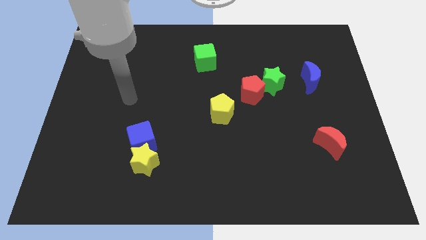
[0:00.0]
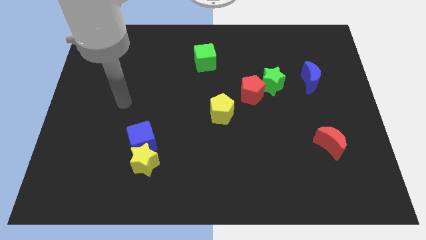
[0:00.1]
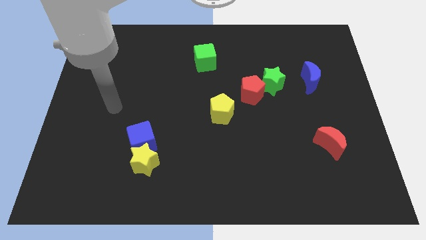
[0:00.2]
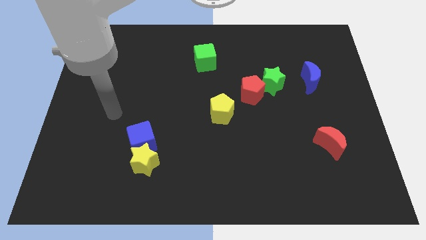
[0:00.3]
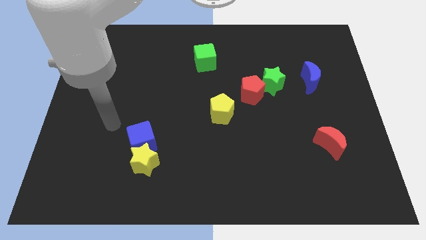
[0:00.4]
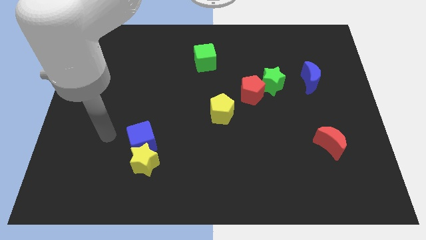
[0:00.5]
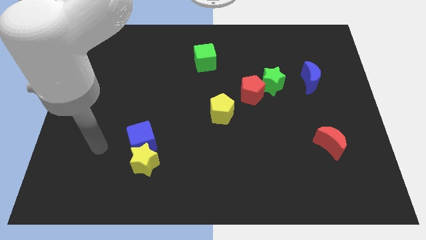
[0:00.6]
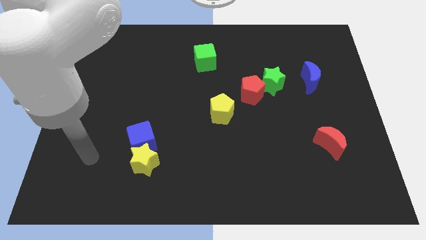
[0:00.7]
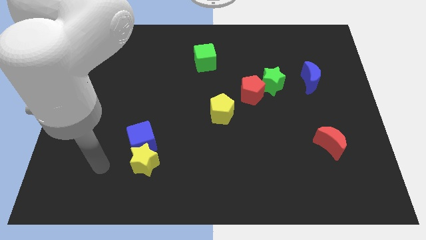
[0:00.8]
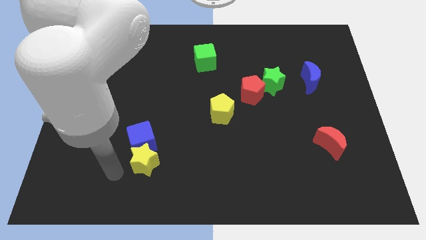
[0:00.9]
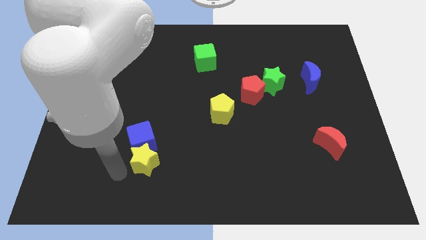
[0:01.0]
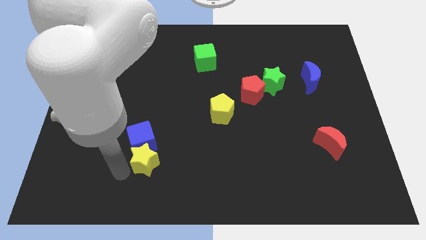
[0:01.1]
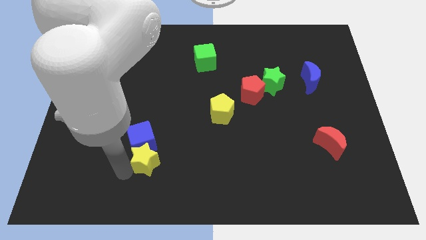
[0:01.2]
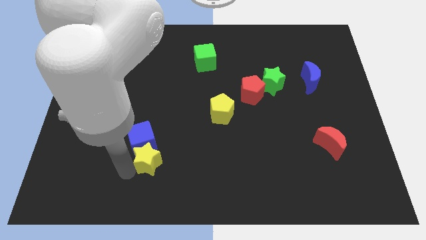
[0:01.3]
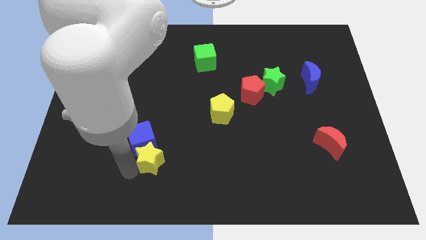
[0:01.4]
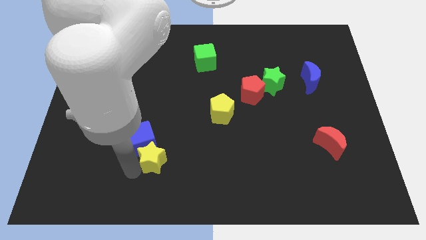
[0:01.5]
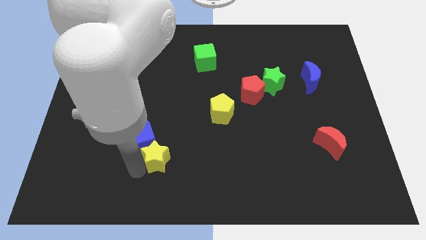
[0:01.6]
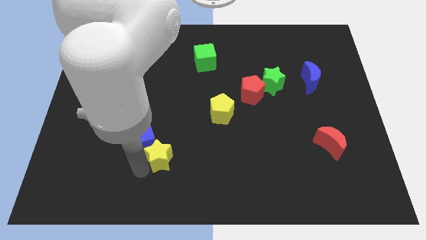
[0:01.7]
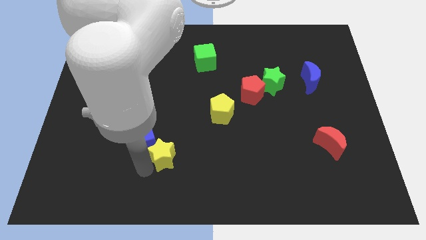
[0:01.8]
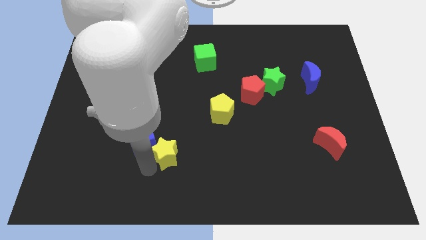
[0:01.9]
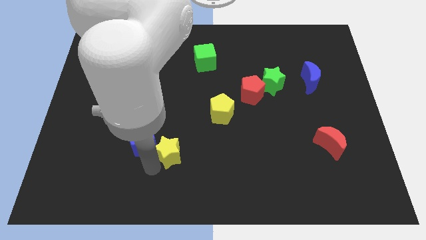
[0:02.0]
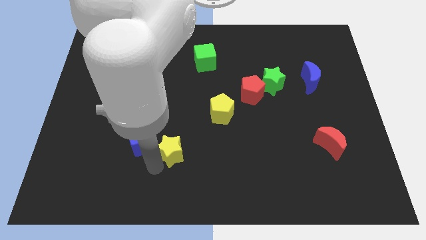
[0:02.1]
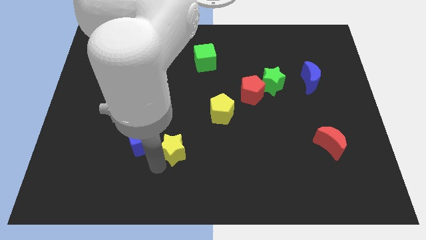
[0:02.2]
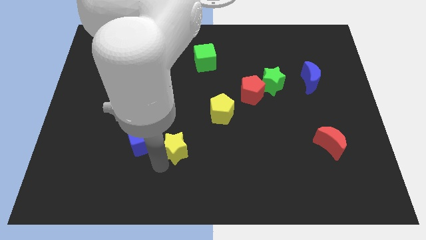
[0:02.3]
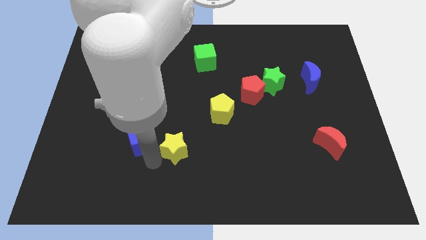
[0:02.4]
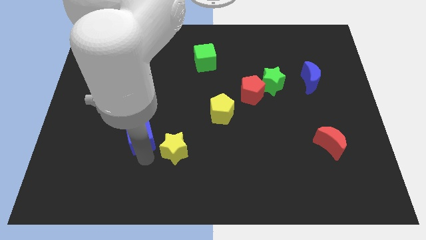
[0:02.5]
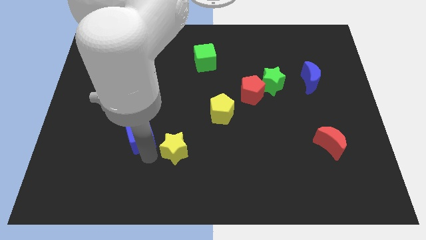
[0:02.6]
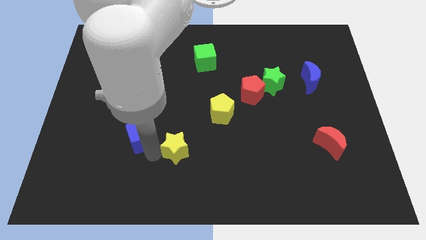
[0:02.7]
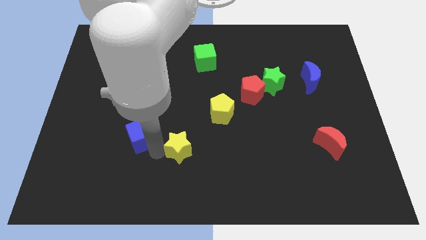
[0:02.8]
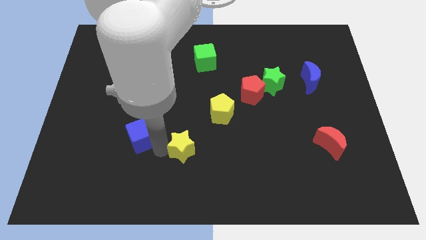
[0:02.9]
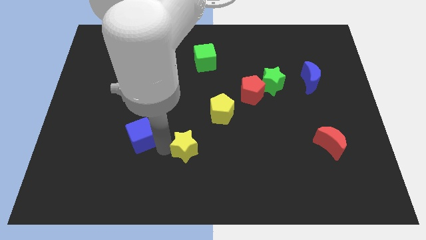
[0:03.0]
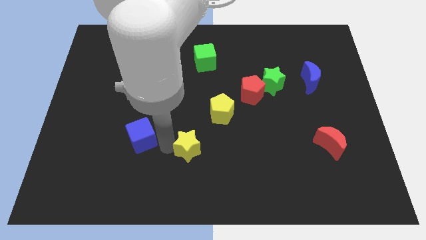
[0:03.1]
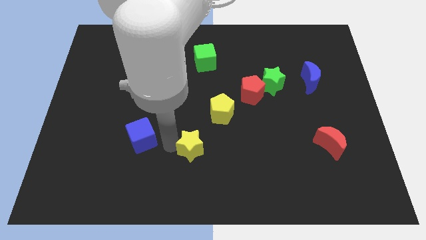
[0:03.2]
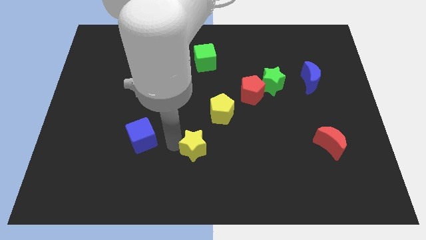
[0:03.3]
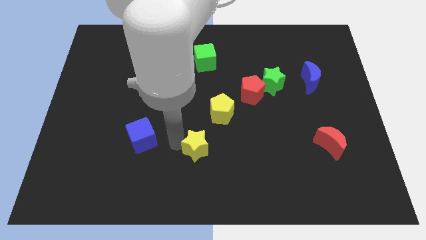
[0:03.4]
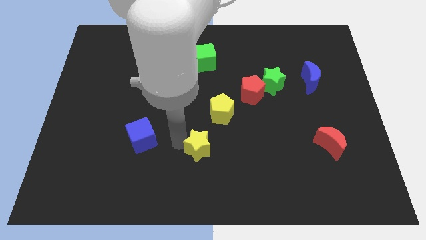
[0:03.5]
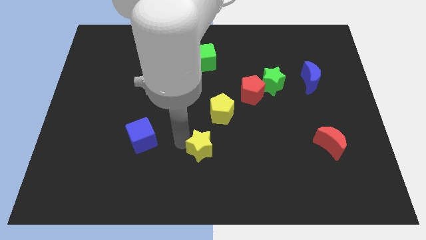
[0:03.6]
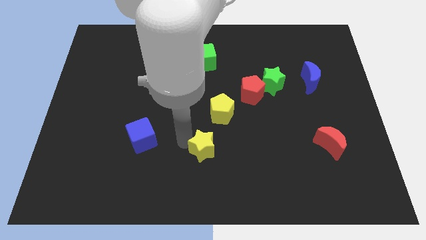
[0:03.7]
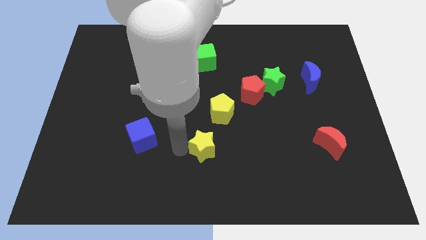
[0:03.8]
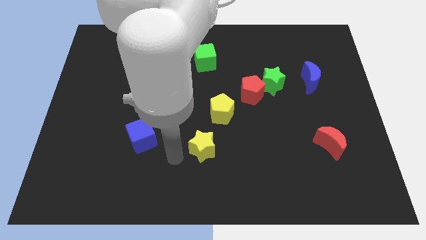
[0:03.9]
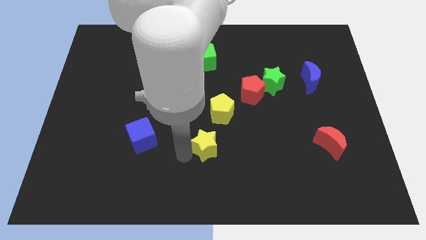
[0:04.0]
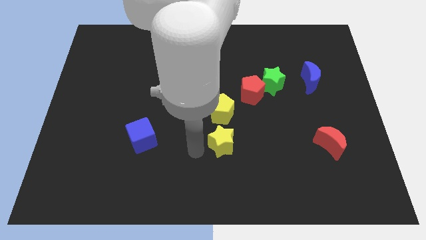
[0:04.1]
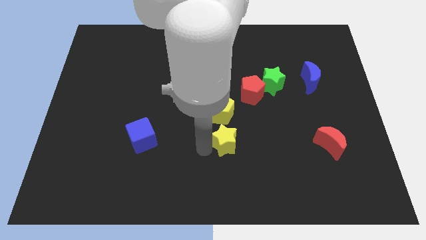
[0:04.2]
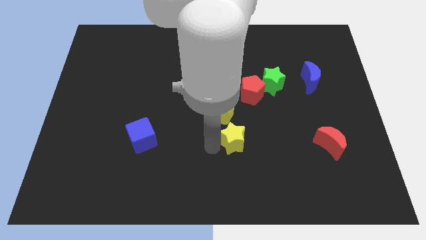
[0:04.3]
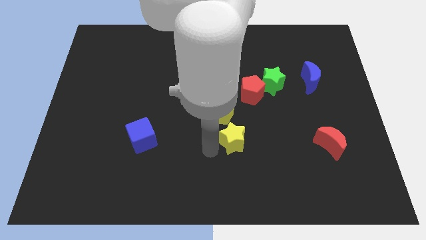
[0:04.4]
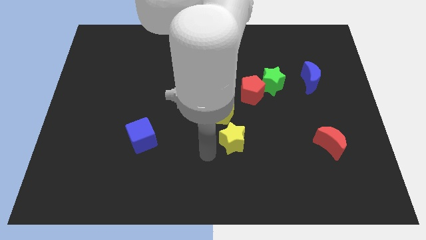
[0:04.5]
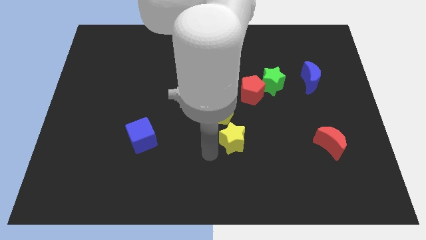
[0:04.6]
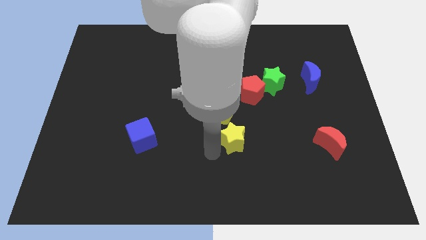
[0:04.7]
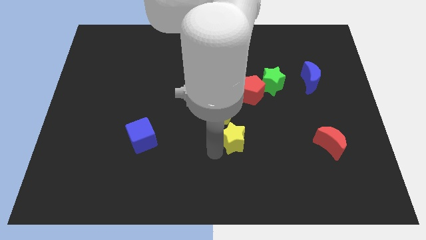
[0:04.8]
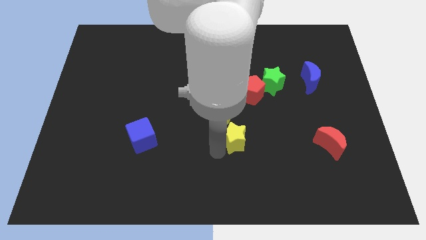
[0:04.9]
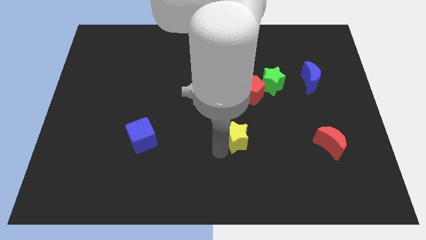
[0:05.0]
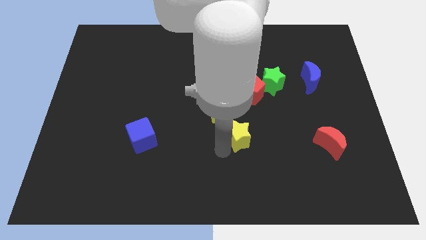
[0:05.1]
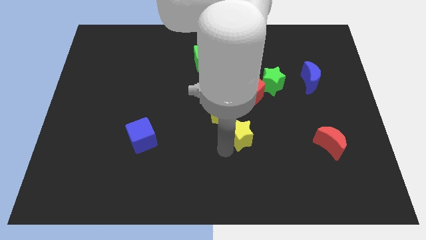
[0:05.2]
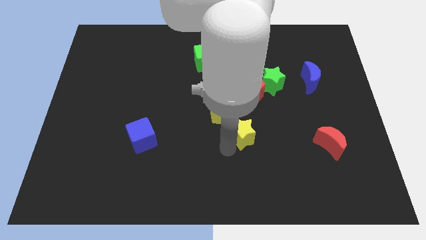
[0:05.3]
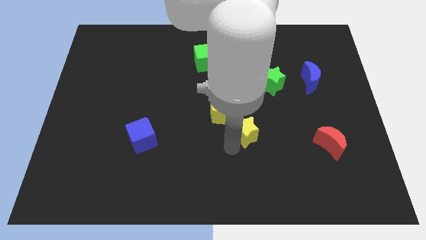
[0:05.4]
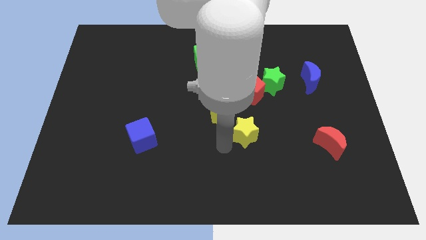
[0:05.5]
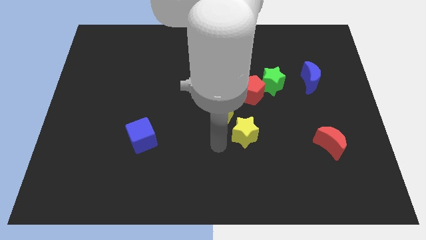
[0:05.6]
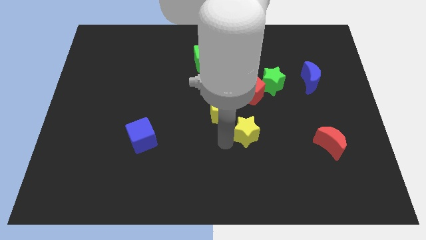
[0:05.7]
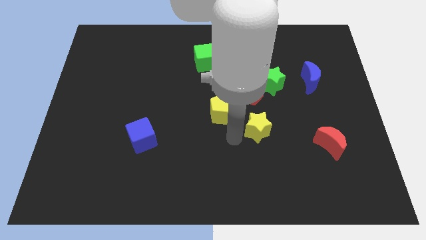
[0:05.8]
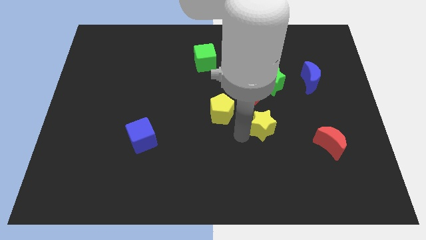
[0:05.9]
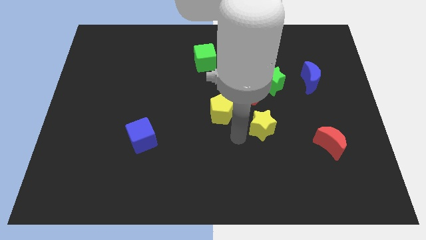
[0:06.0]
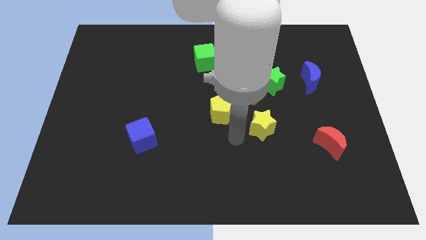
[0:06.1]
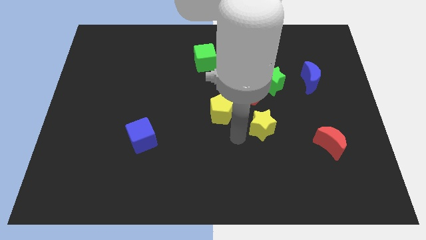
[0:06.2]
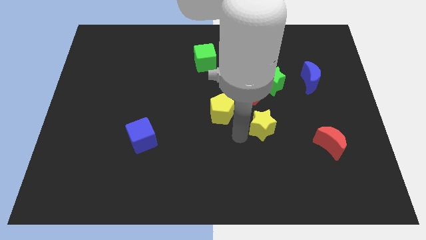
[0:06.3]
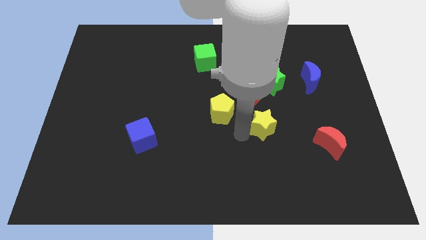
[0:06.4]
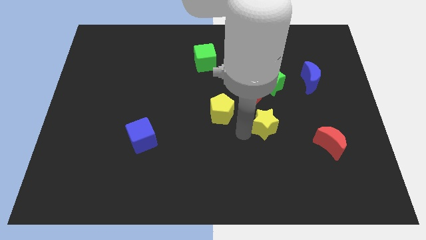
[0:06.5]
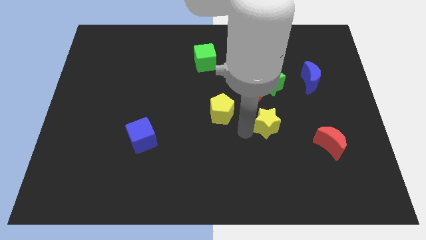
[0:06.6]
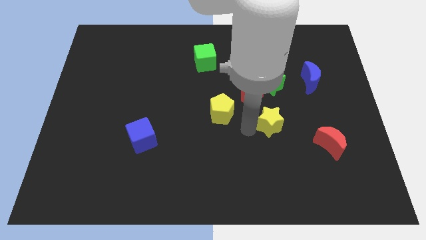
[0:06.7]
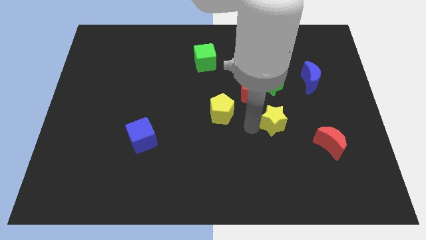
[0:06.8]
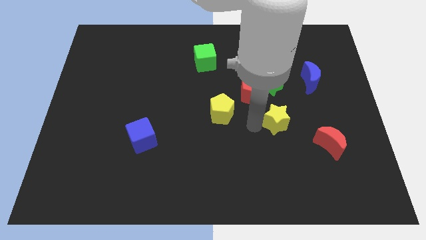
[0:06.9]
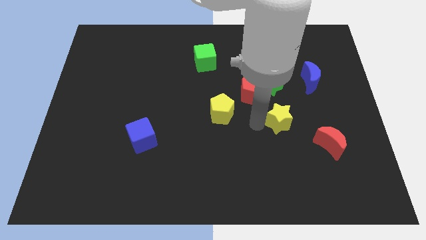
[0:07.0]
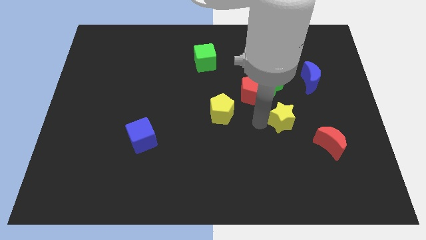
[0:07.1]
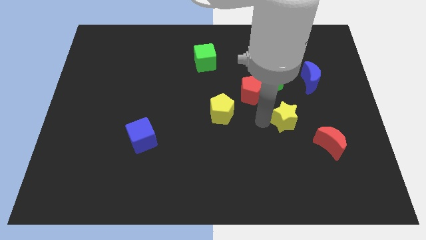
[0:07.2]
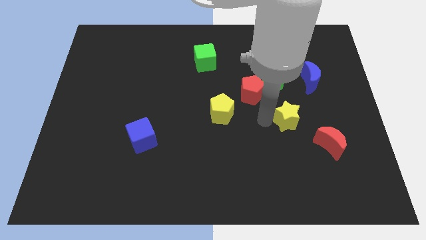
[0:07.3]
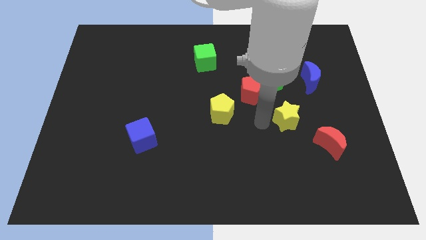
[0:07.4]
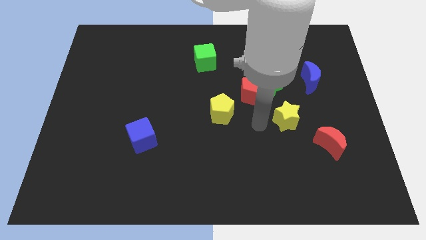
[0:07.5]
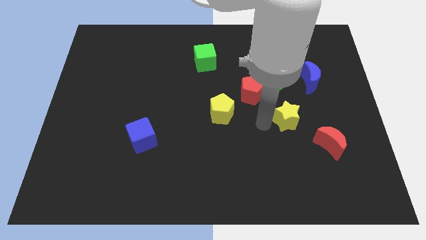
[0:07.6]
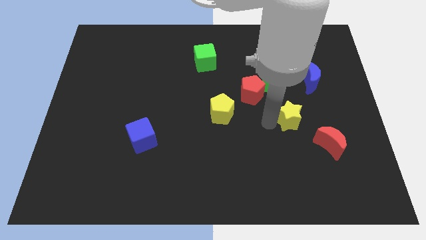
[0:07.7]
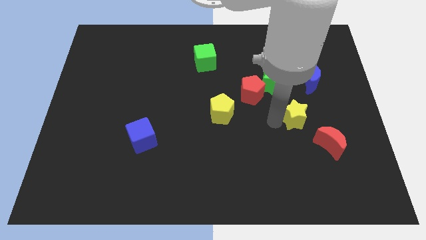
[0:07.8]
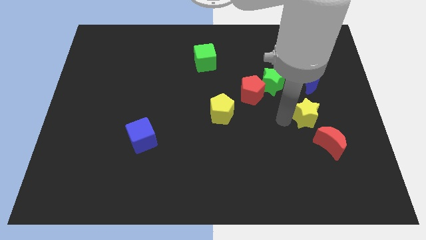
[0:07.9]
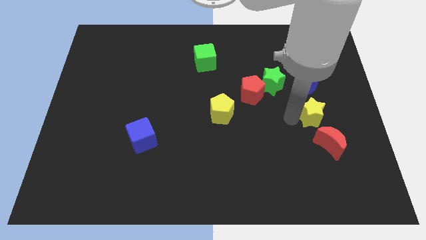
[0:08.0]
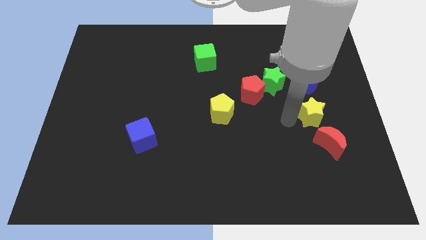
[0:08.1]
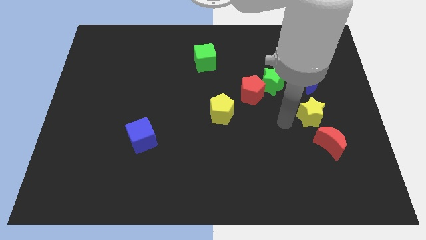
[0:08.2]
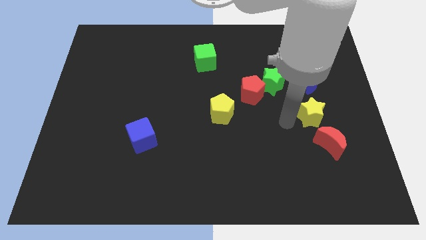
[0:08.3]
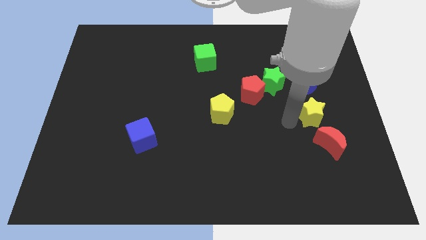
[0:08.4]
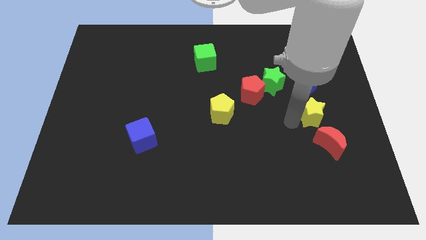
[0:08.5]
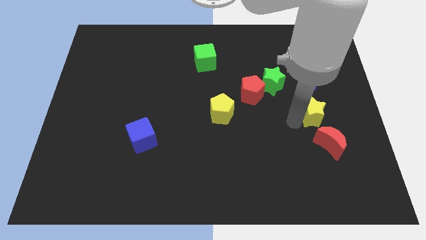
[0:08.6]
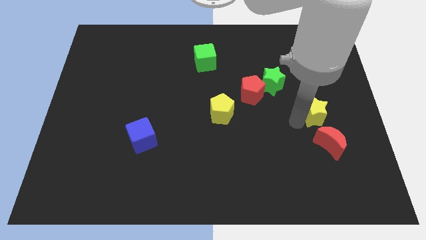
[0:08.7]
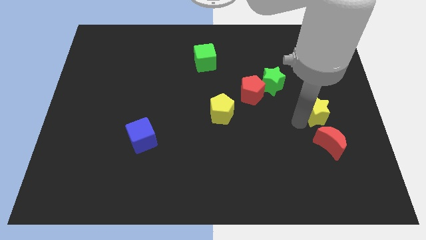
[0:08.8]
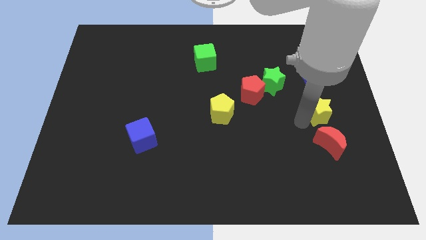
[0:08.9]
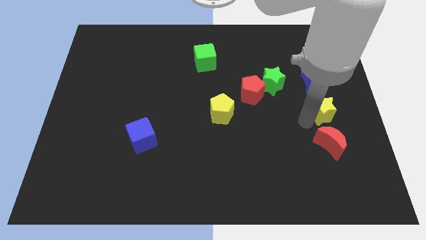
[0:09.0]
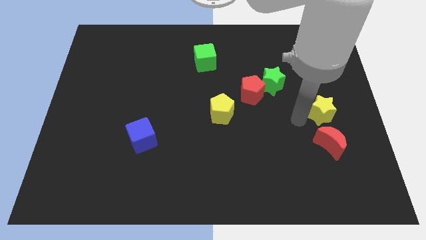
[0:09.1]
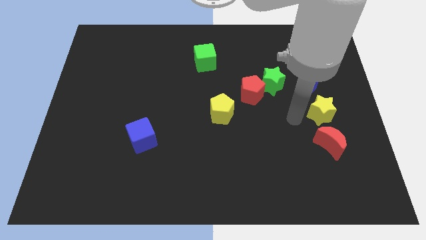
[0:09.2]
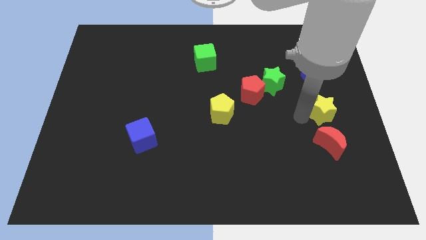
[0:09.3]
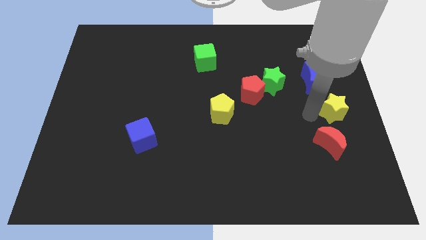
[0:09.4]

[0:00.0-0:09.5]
slide the yellow star to the center right
